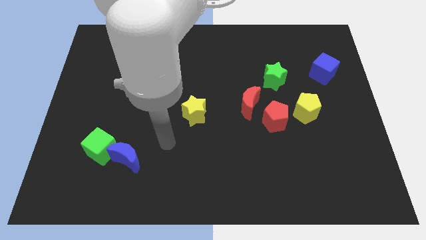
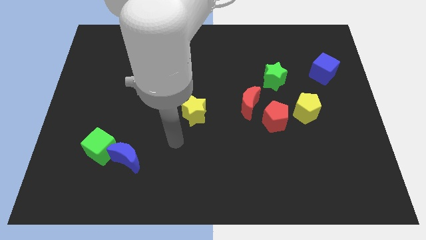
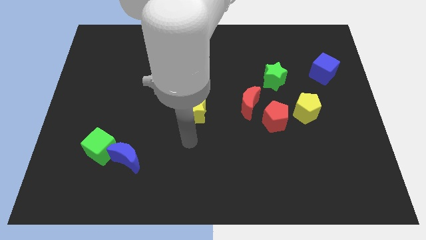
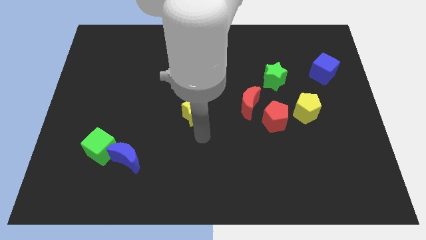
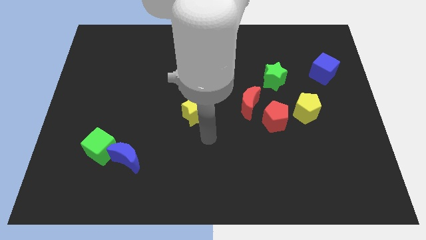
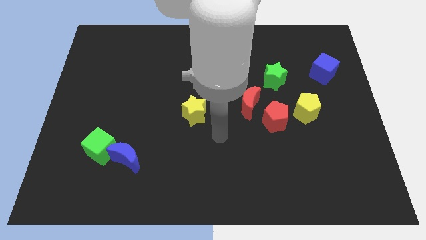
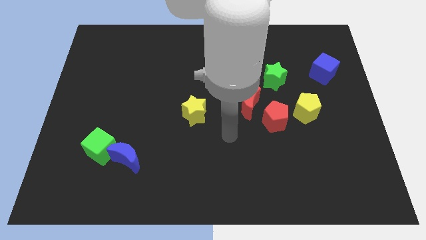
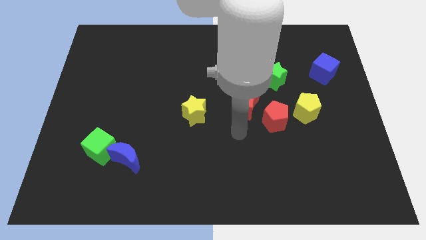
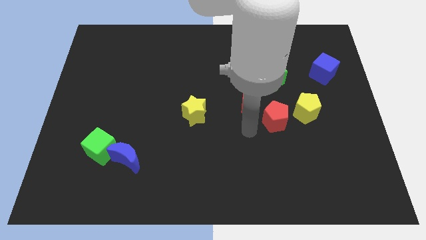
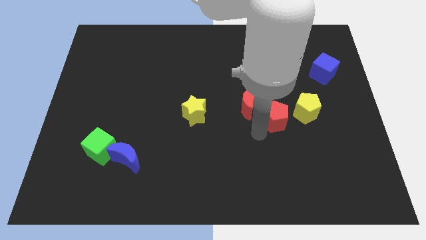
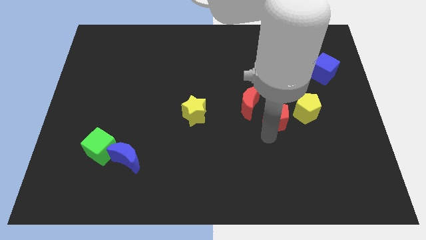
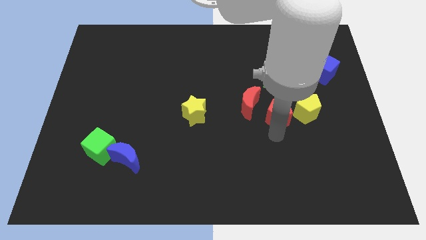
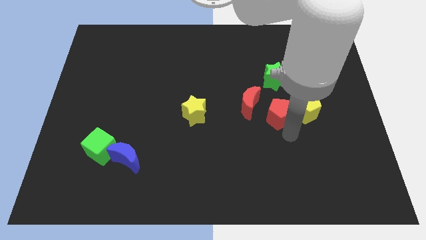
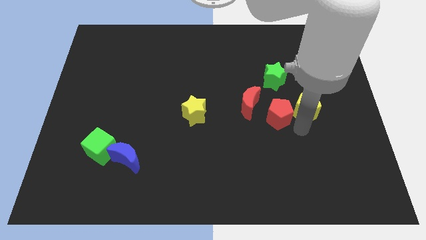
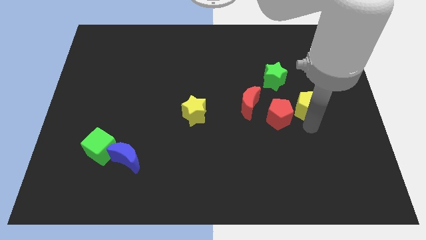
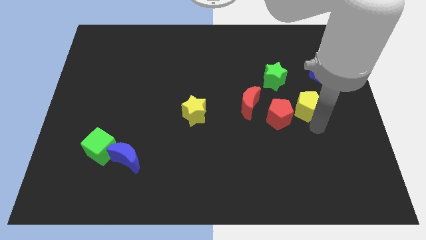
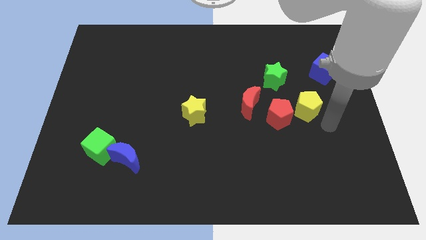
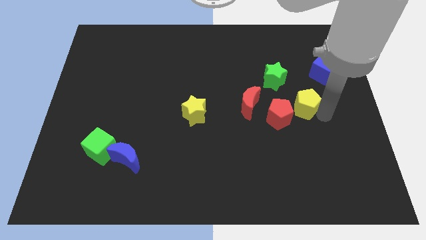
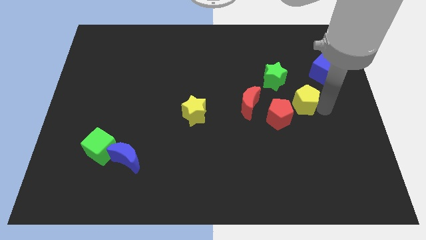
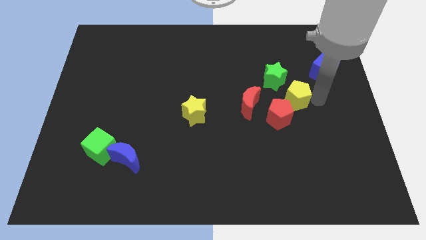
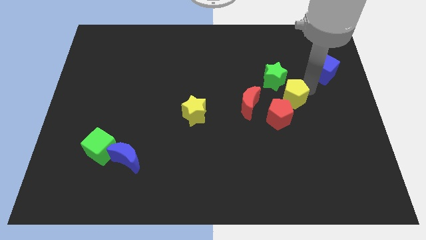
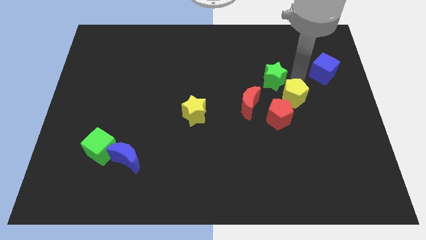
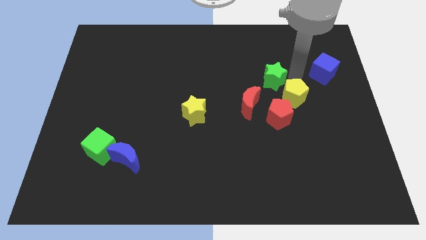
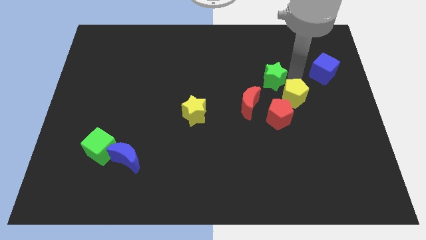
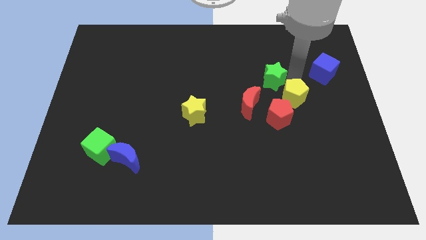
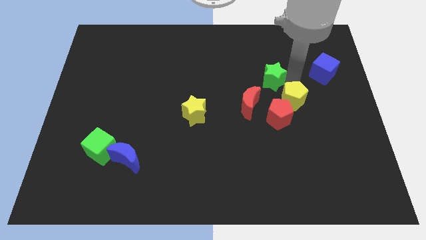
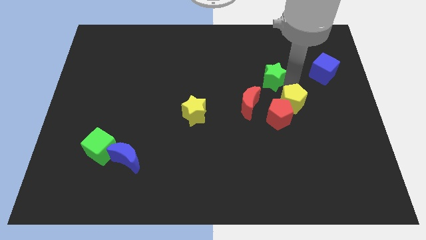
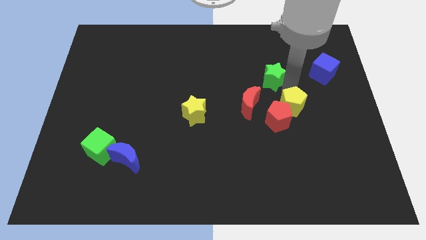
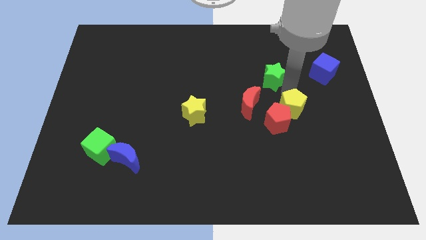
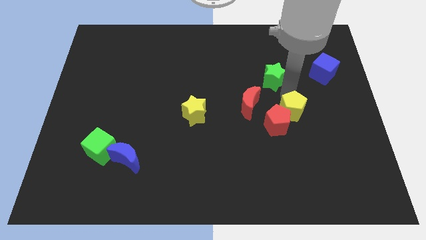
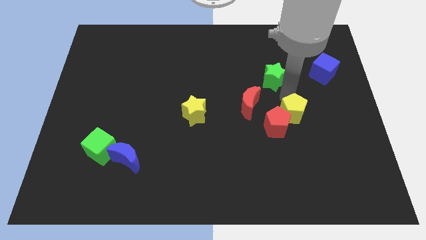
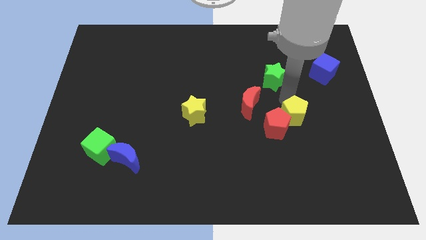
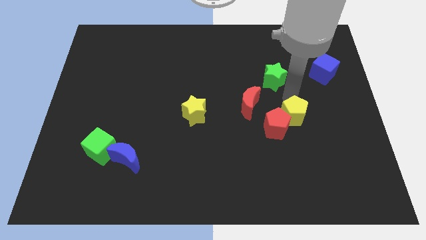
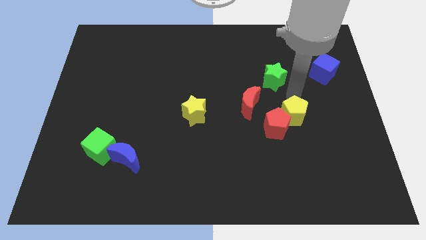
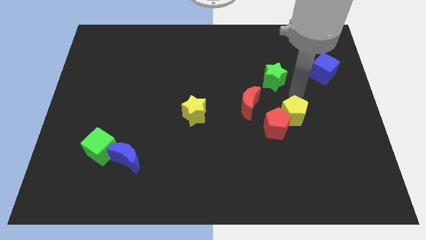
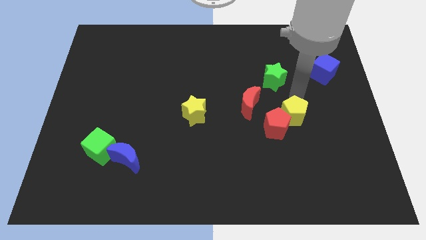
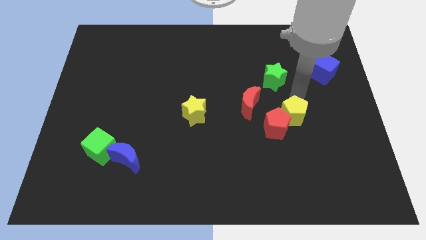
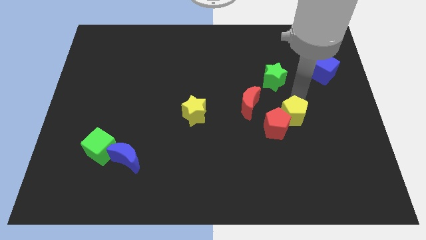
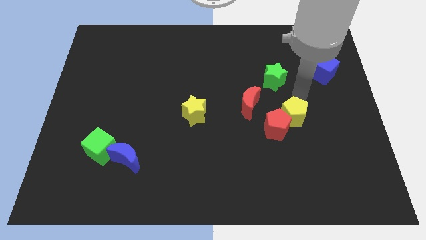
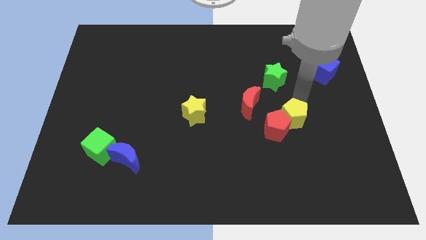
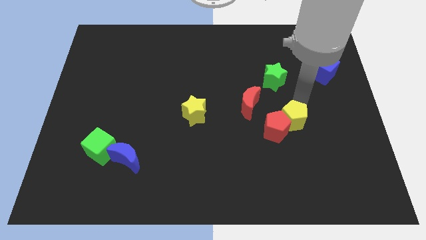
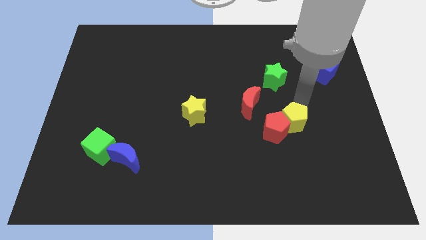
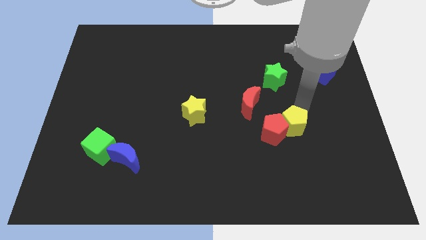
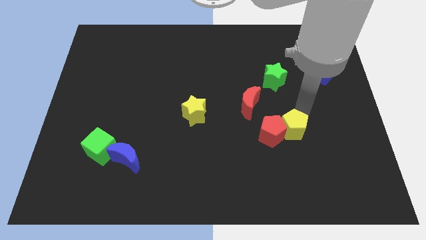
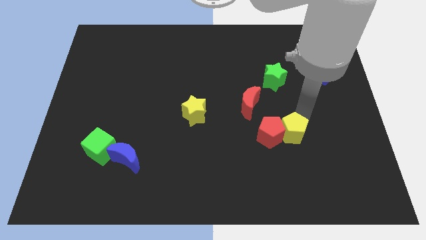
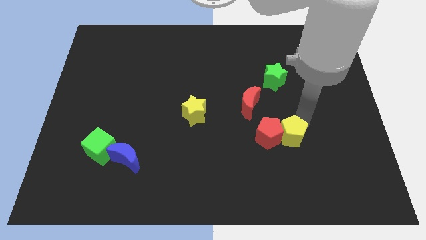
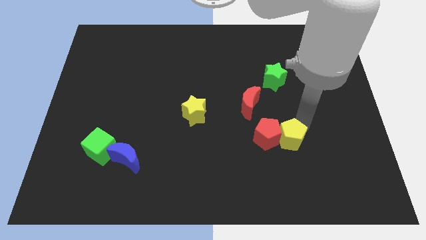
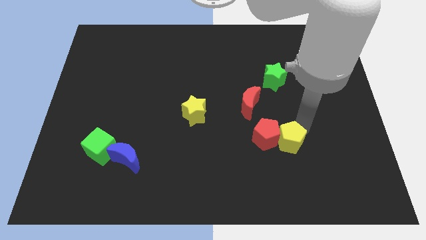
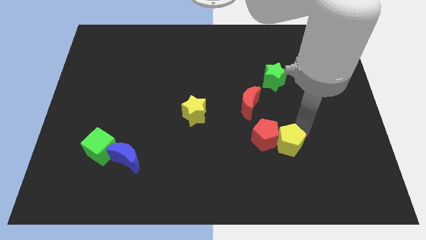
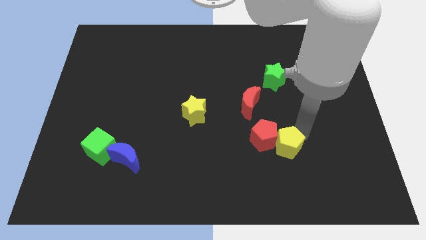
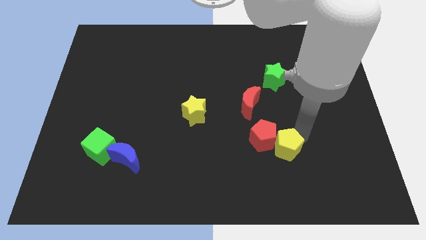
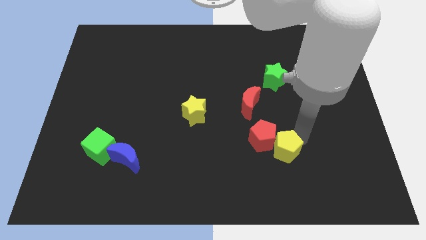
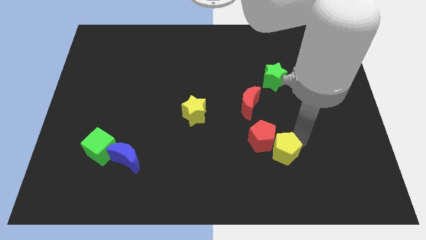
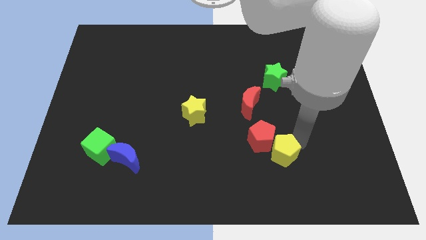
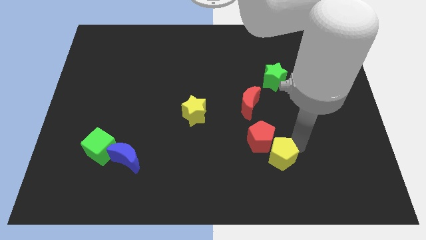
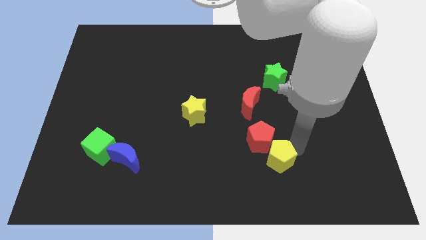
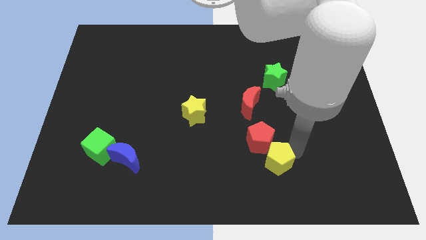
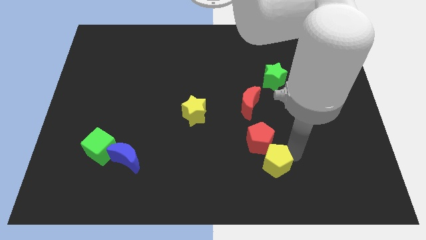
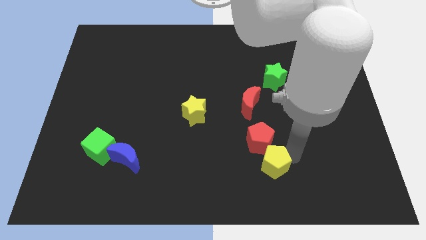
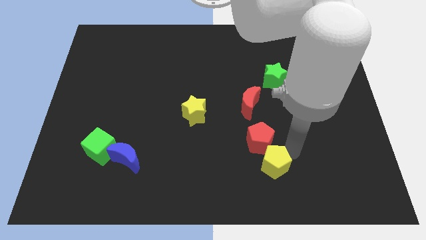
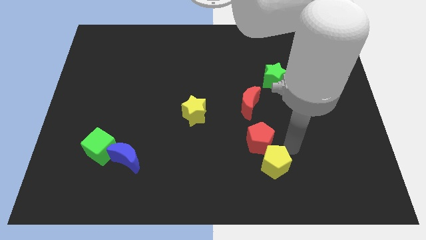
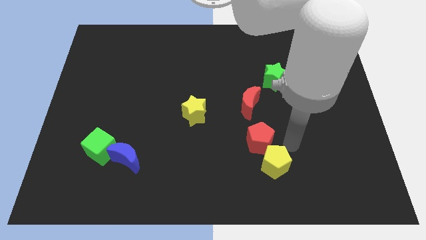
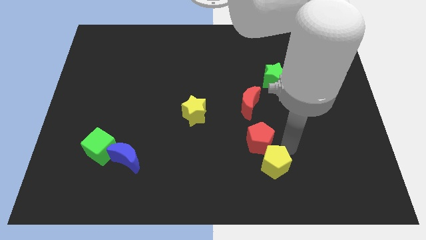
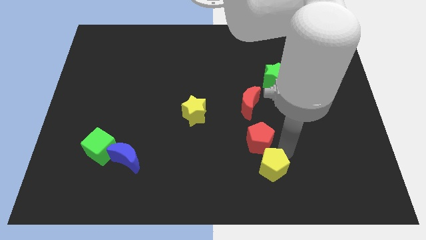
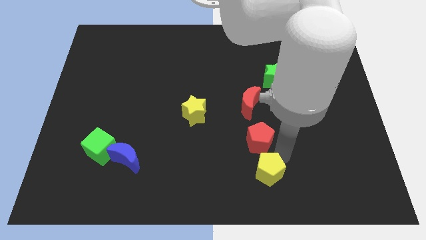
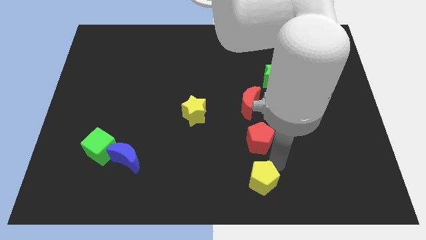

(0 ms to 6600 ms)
move the yellow pentagon to the bottom side

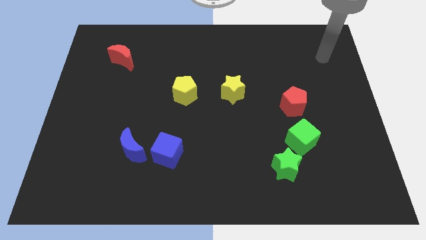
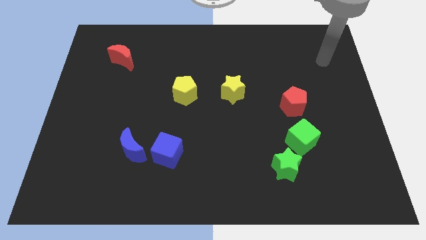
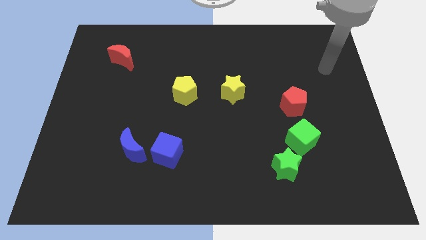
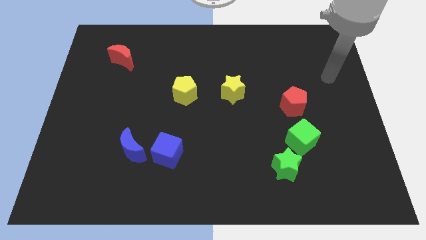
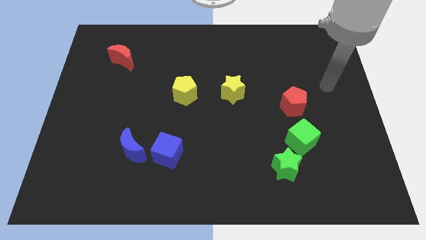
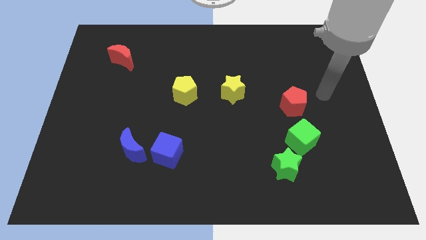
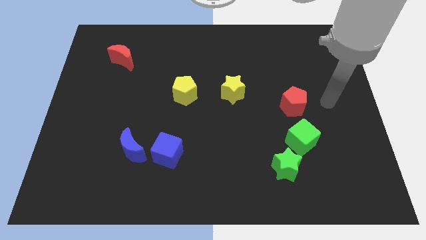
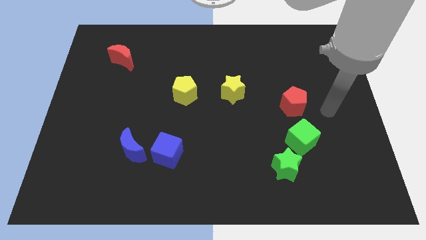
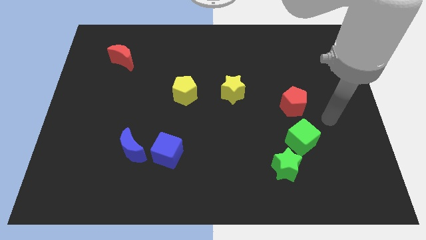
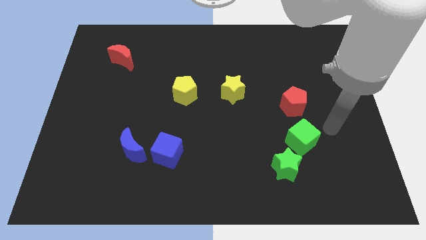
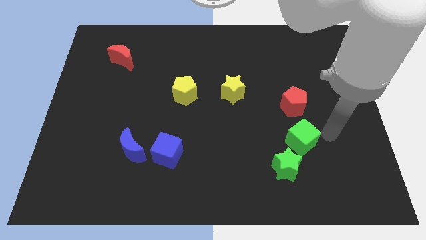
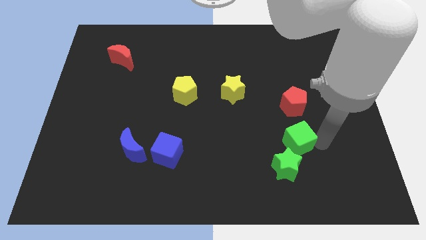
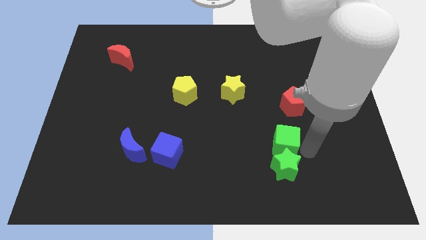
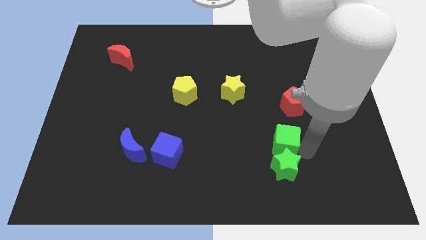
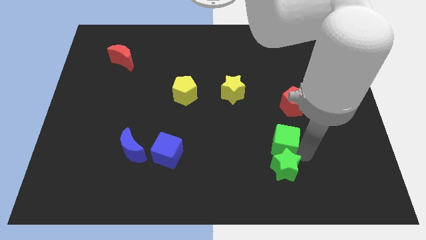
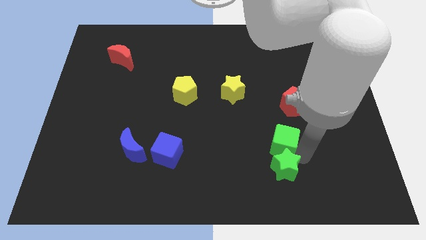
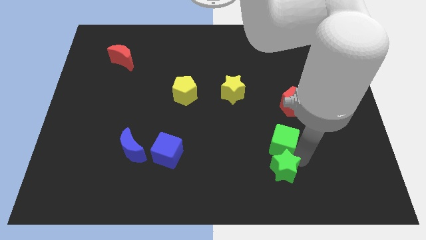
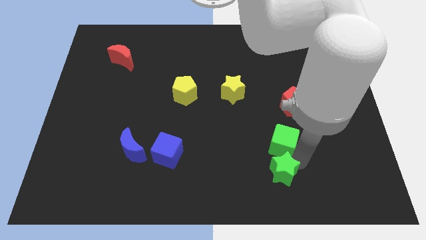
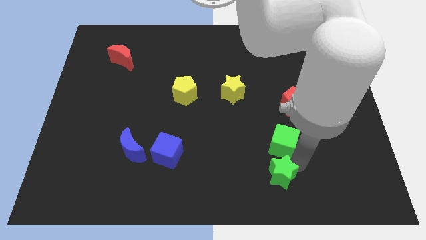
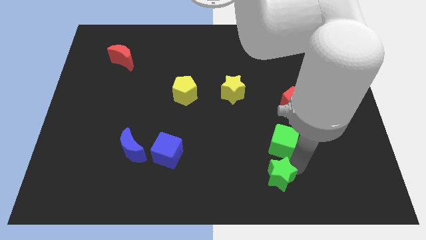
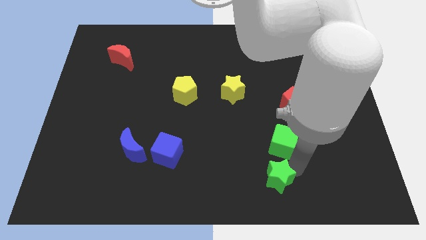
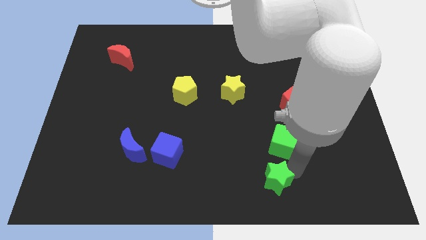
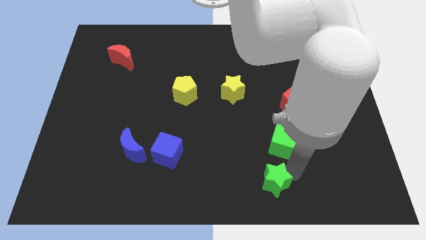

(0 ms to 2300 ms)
slide the green star to the bottom
